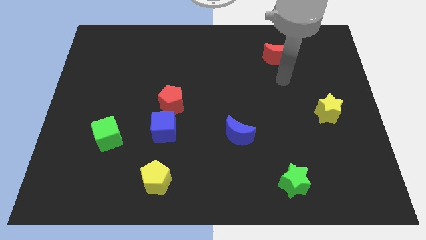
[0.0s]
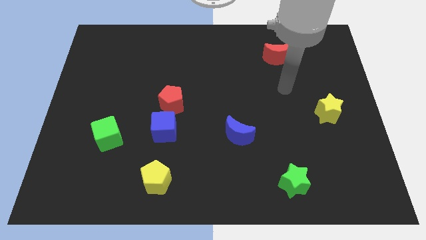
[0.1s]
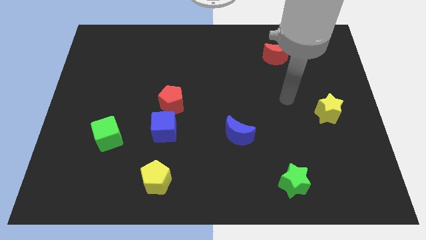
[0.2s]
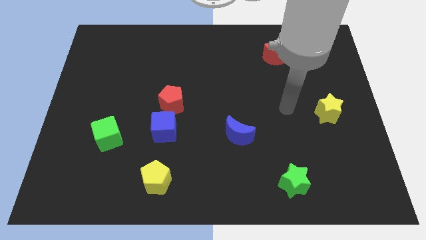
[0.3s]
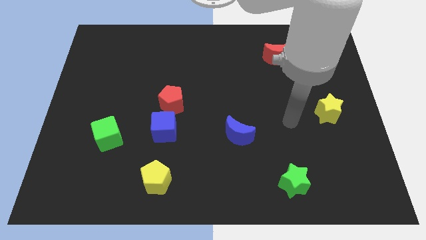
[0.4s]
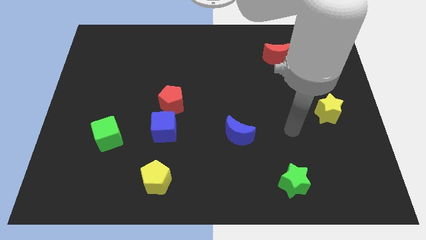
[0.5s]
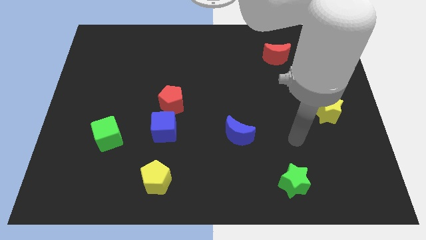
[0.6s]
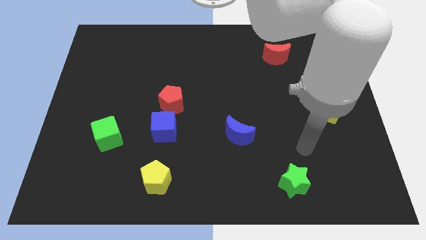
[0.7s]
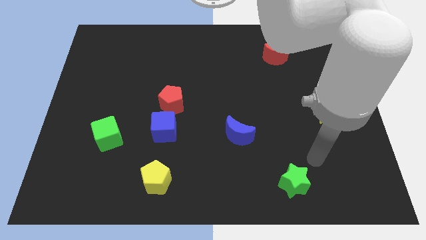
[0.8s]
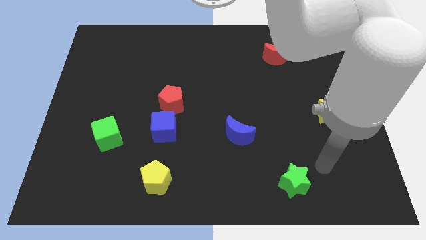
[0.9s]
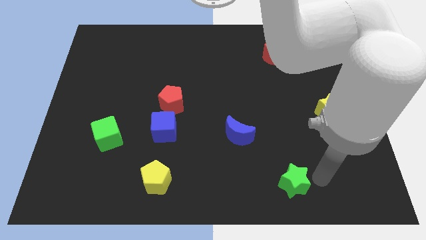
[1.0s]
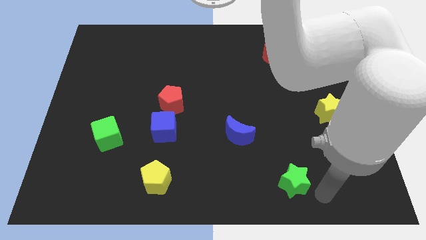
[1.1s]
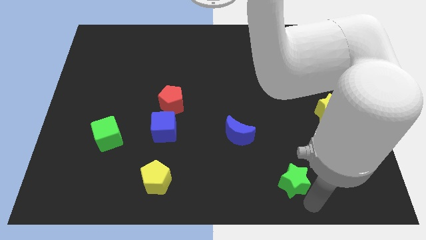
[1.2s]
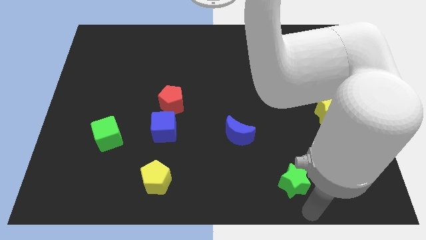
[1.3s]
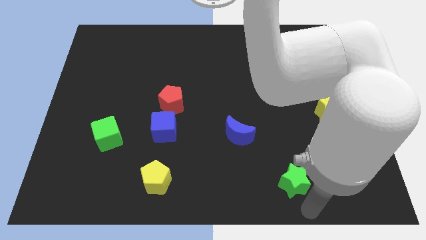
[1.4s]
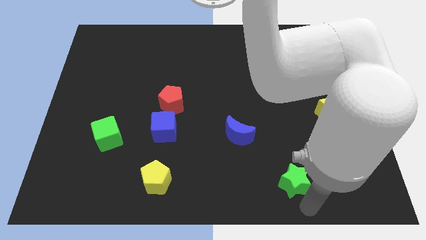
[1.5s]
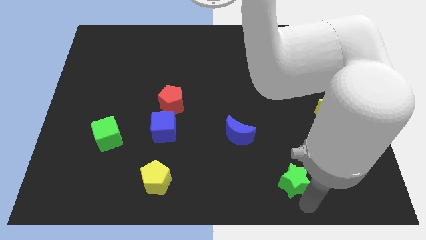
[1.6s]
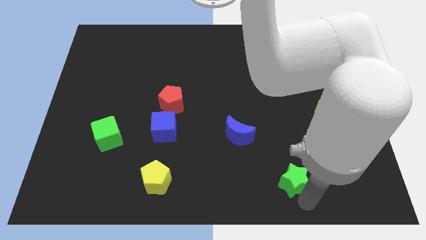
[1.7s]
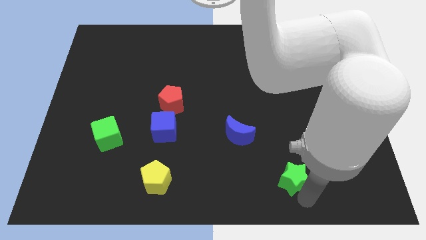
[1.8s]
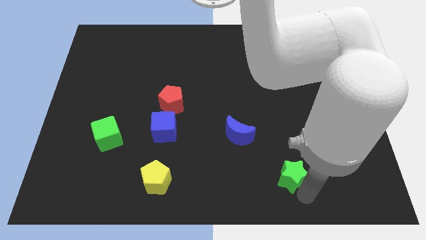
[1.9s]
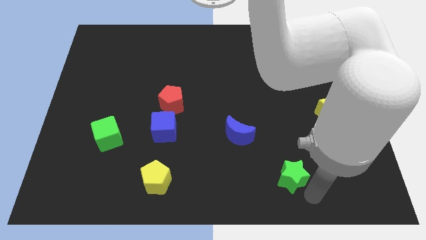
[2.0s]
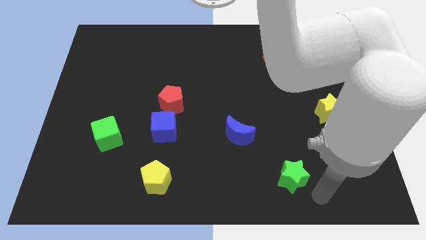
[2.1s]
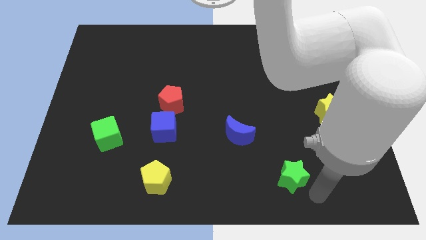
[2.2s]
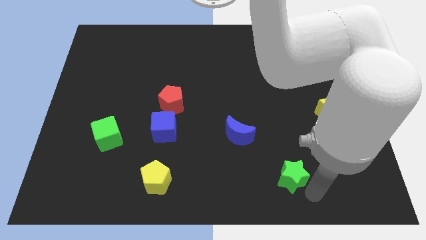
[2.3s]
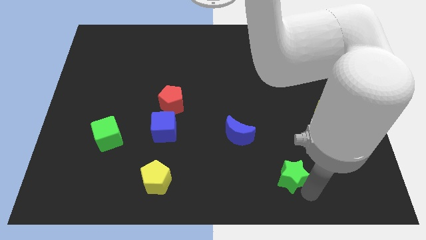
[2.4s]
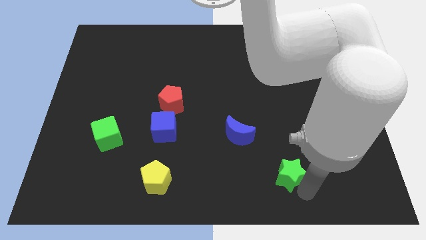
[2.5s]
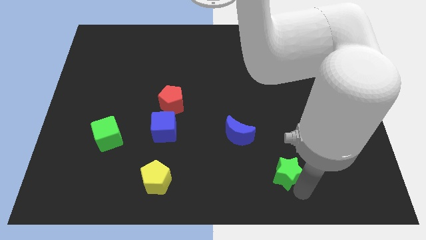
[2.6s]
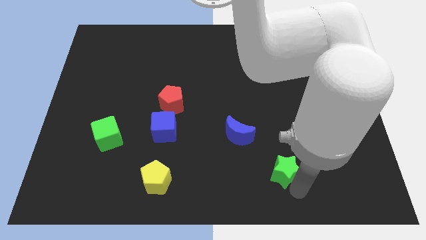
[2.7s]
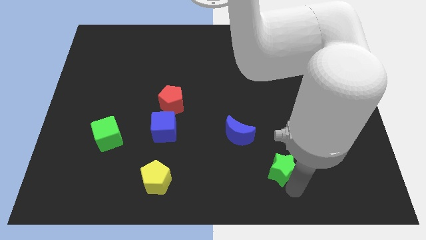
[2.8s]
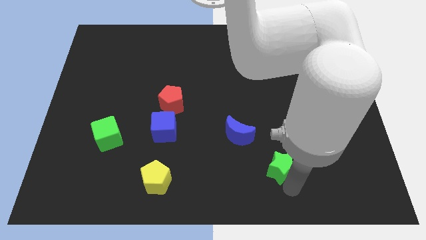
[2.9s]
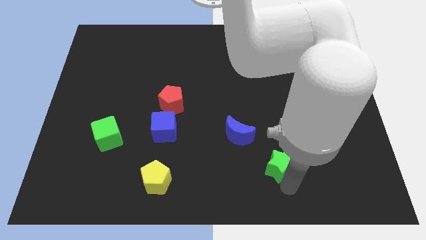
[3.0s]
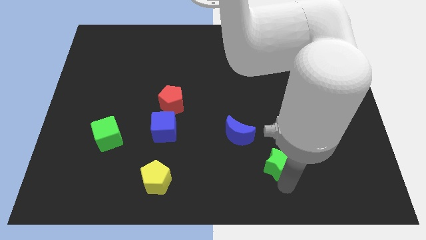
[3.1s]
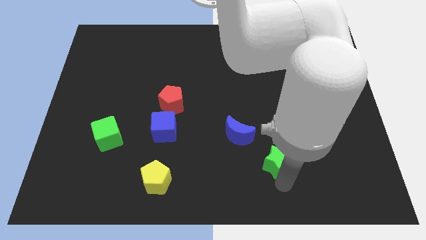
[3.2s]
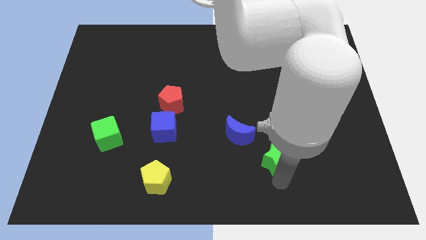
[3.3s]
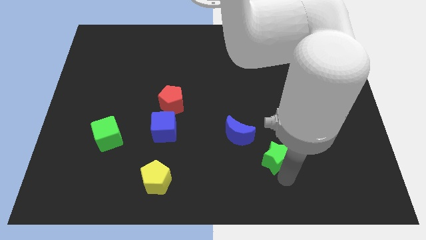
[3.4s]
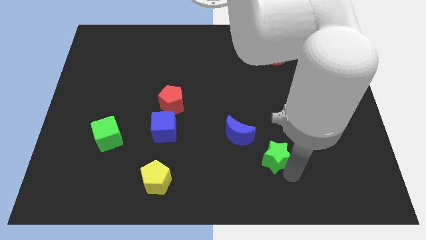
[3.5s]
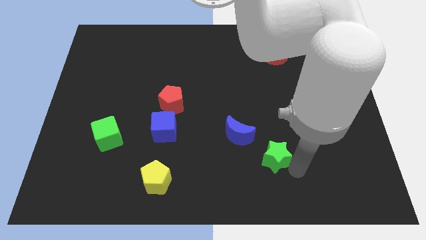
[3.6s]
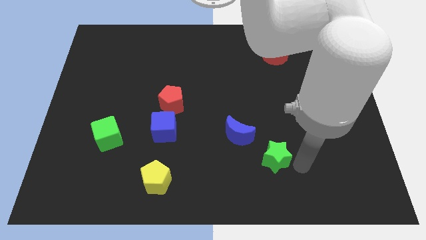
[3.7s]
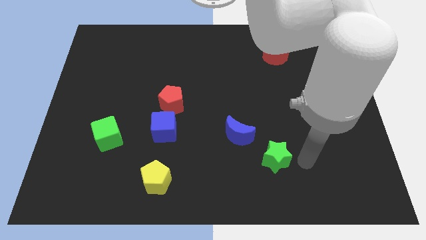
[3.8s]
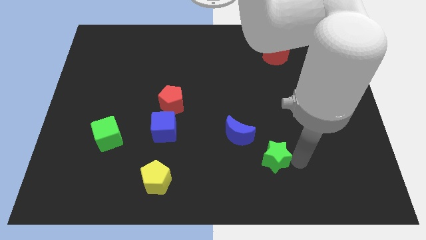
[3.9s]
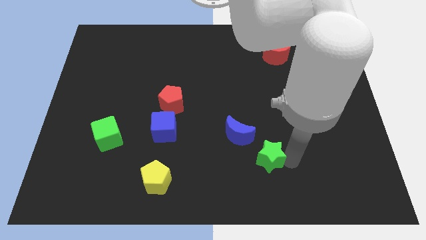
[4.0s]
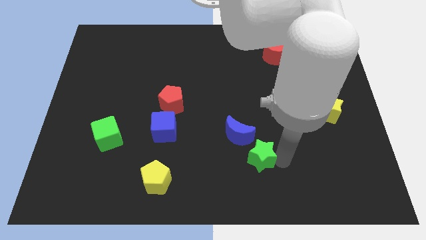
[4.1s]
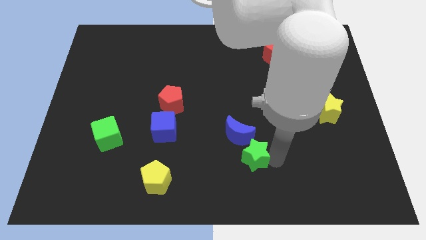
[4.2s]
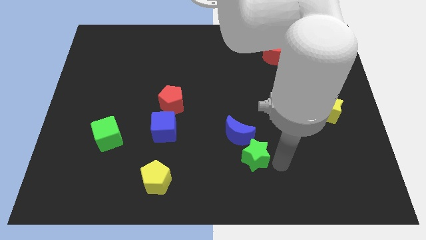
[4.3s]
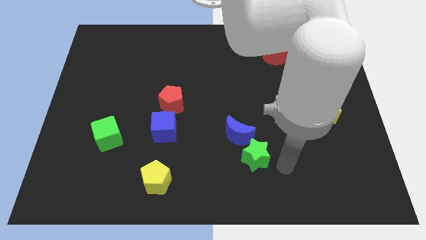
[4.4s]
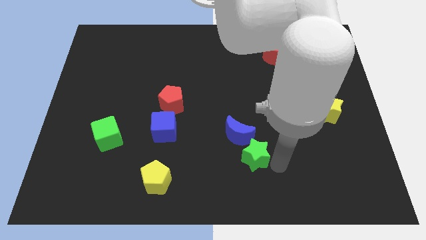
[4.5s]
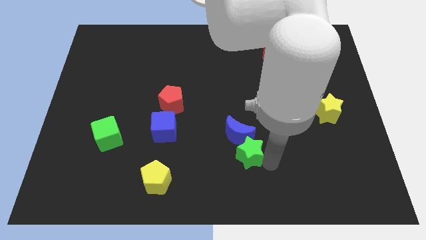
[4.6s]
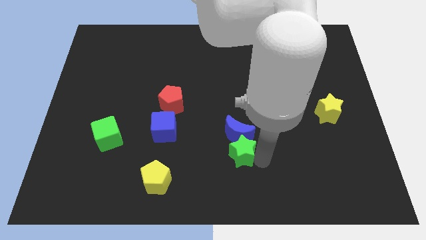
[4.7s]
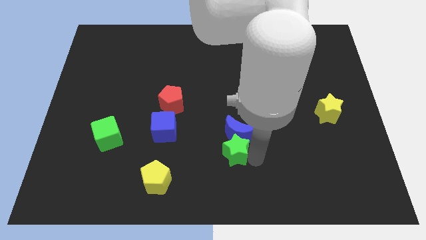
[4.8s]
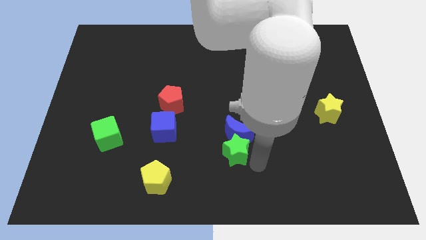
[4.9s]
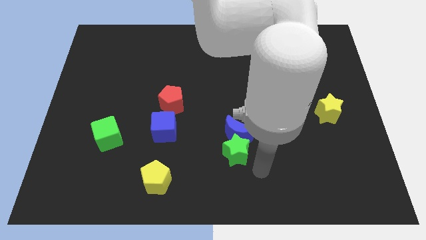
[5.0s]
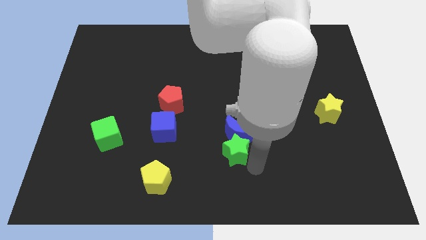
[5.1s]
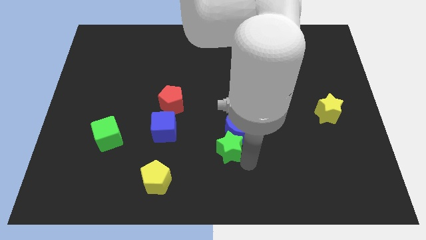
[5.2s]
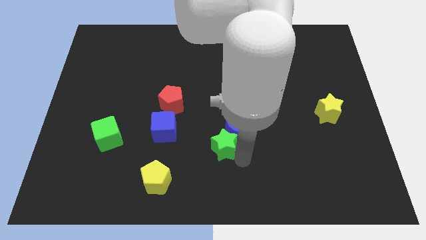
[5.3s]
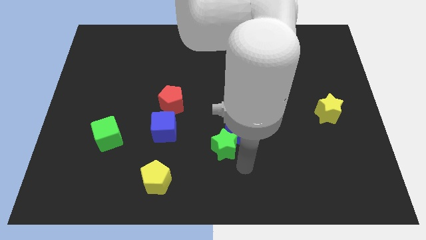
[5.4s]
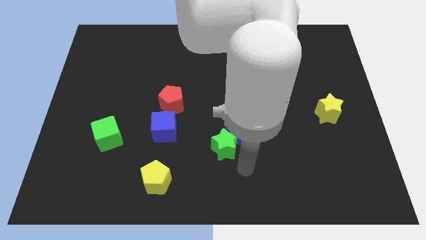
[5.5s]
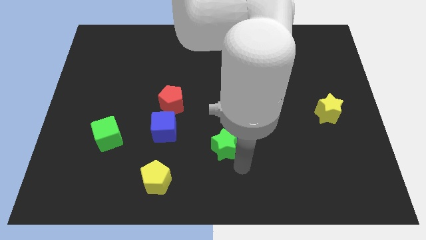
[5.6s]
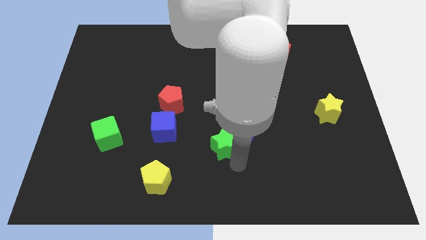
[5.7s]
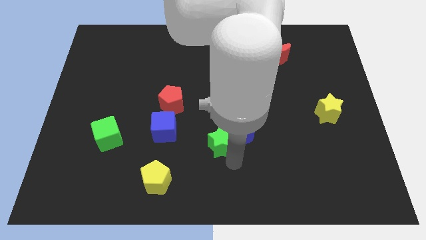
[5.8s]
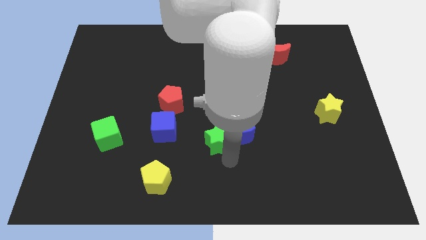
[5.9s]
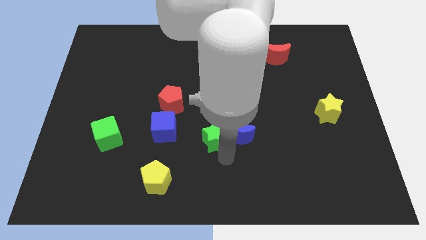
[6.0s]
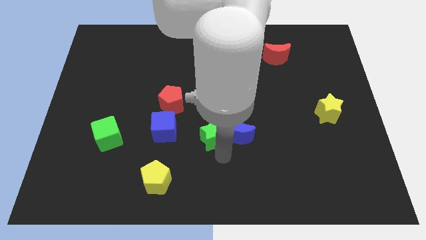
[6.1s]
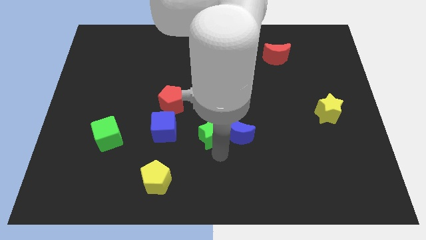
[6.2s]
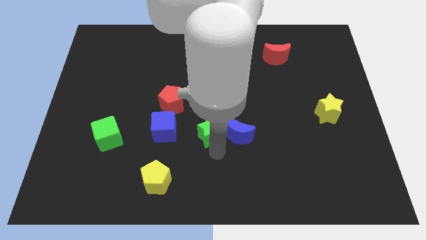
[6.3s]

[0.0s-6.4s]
push the green star to the bottom right side of the red pentagon

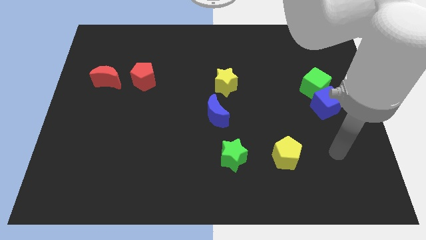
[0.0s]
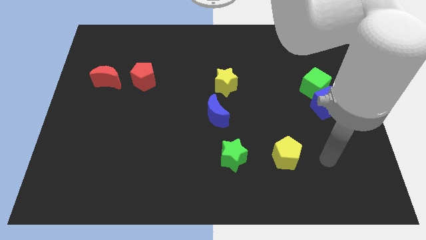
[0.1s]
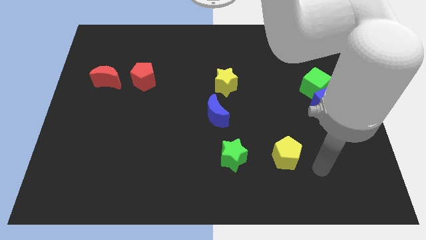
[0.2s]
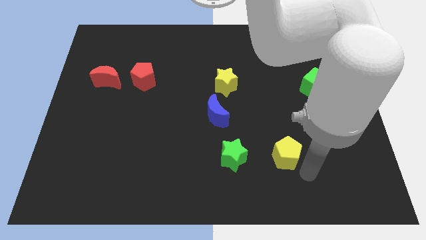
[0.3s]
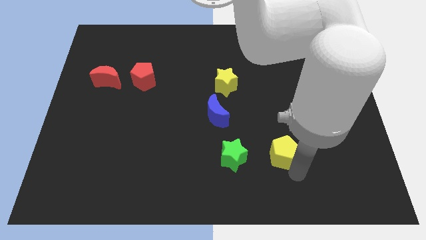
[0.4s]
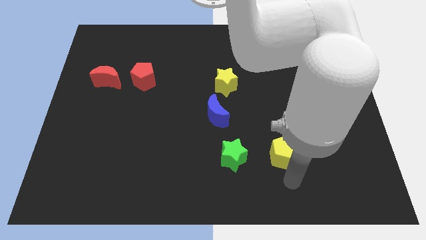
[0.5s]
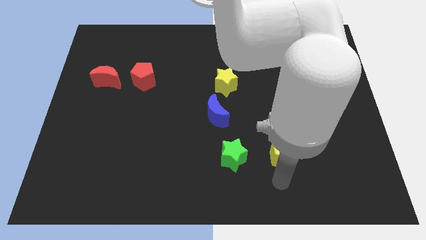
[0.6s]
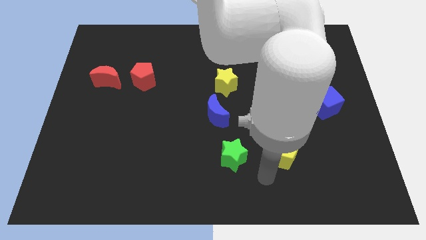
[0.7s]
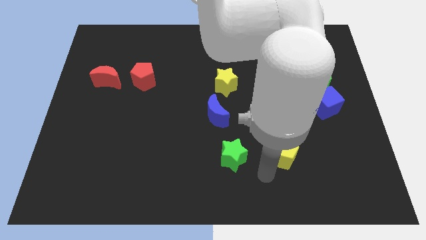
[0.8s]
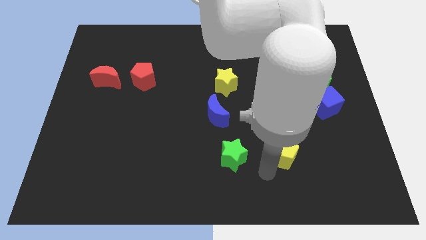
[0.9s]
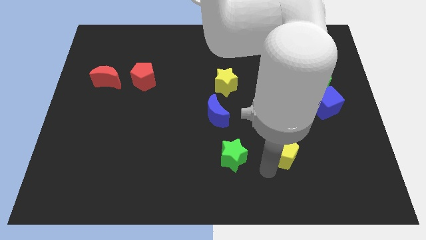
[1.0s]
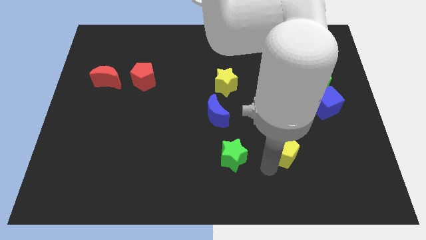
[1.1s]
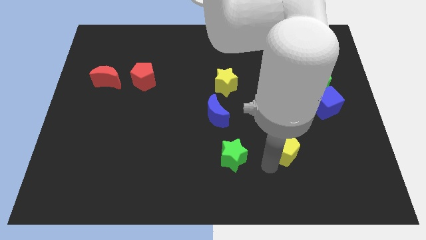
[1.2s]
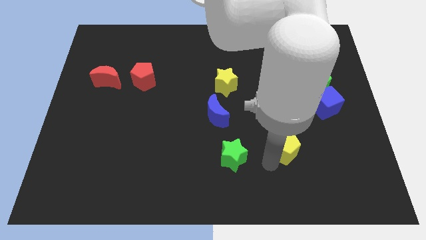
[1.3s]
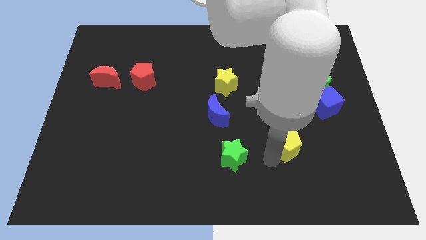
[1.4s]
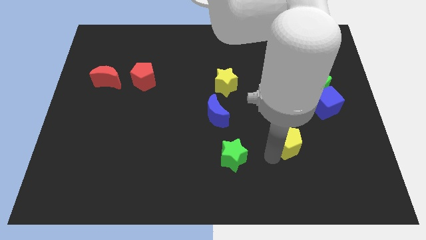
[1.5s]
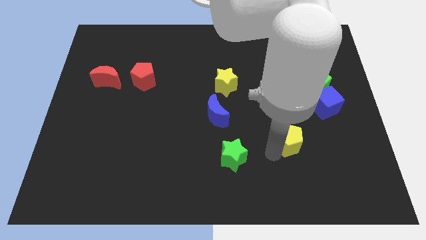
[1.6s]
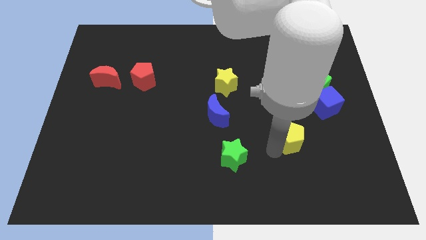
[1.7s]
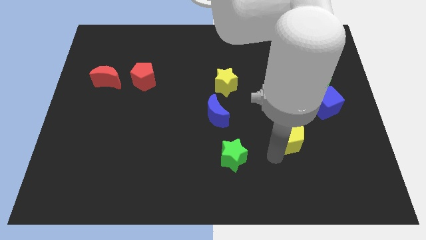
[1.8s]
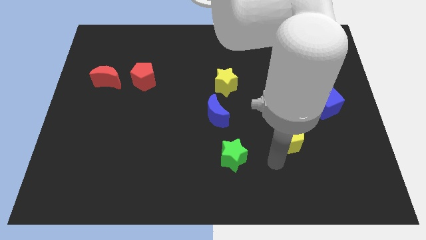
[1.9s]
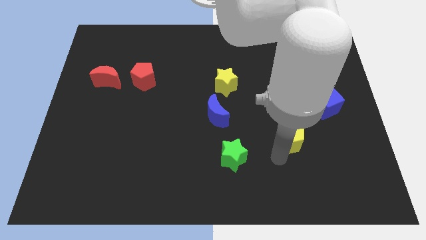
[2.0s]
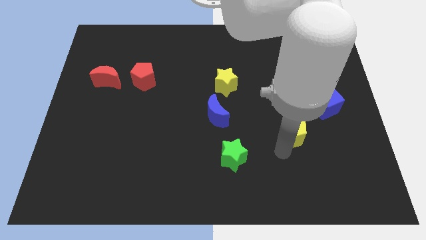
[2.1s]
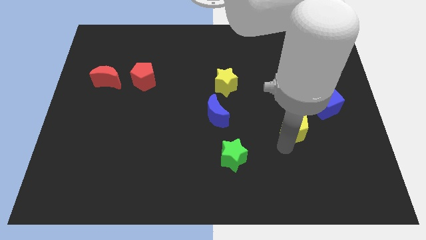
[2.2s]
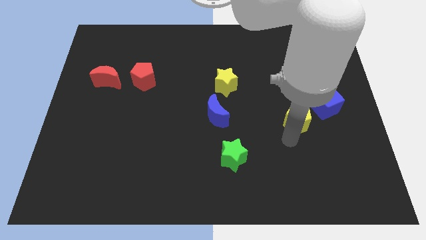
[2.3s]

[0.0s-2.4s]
move the yellow pentagon to the bottom left side of the green cube
